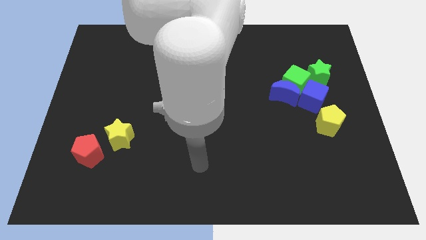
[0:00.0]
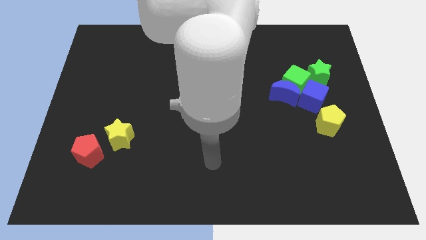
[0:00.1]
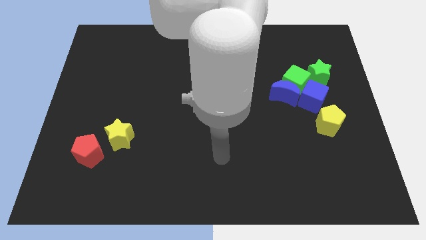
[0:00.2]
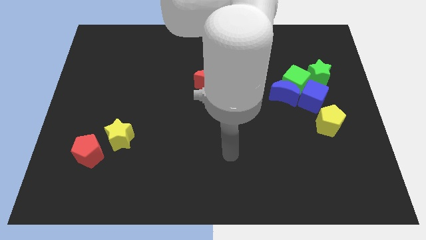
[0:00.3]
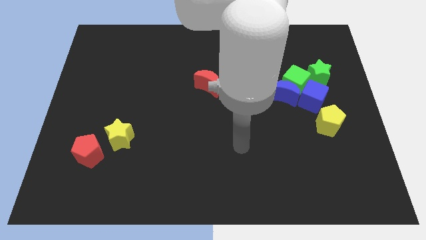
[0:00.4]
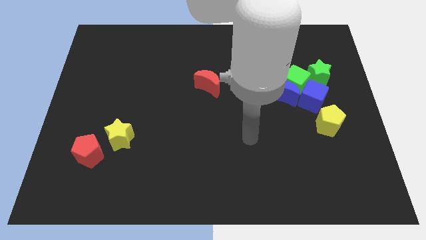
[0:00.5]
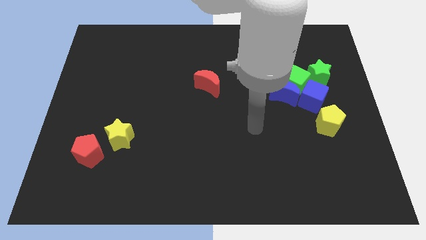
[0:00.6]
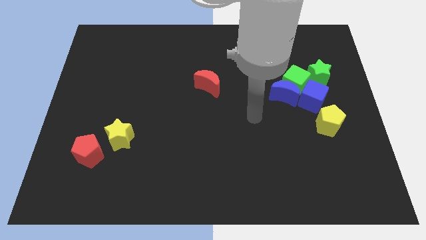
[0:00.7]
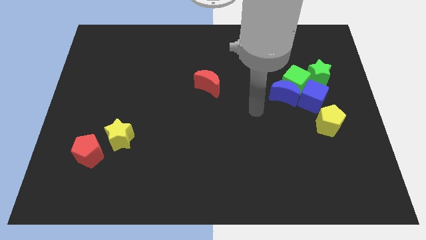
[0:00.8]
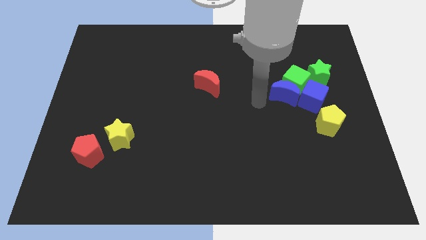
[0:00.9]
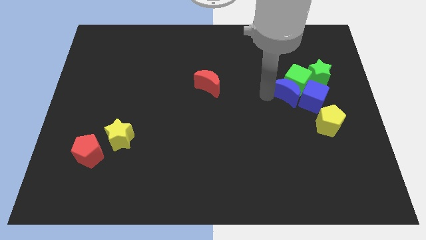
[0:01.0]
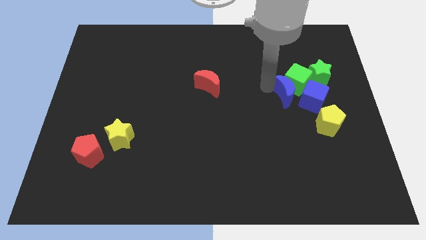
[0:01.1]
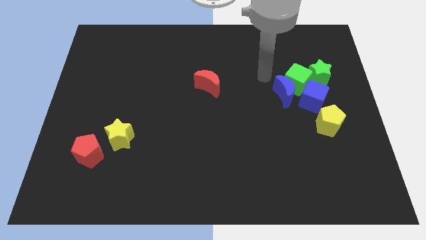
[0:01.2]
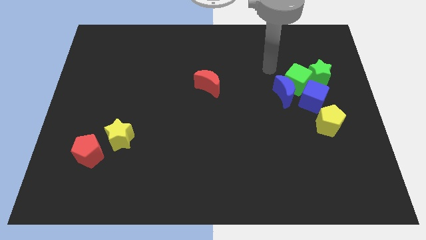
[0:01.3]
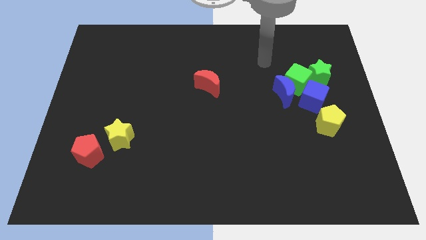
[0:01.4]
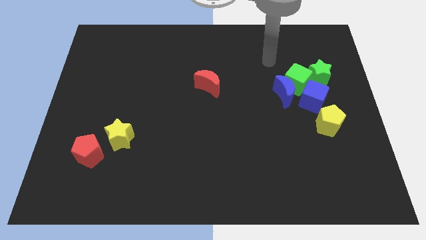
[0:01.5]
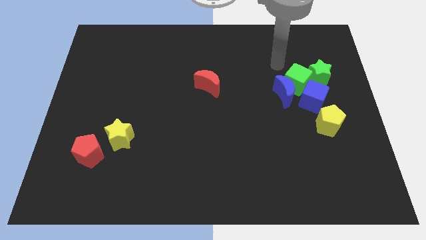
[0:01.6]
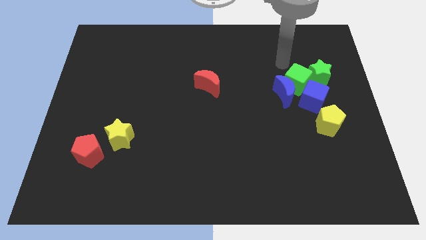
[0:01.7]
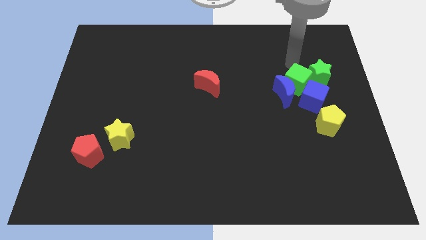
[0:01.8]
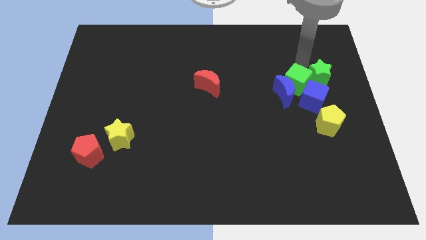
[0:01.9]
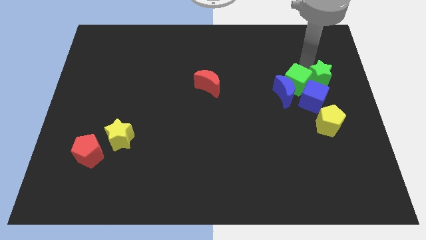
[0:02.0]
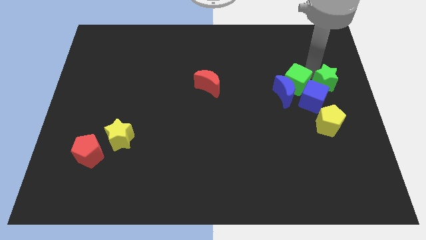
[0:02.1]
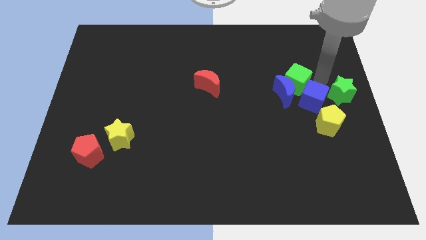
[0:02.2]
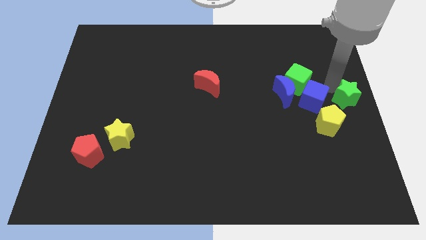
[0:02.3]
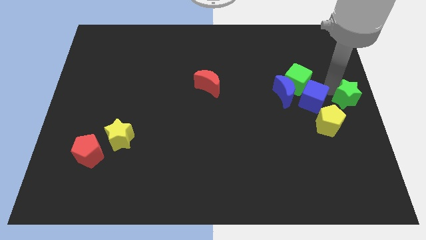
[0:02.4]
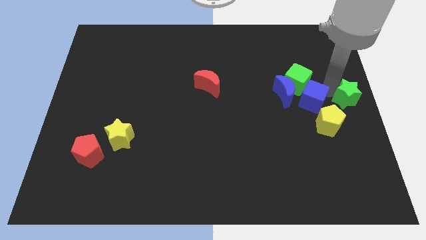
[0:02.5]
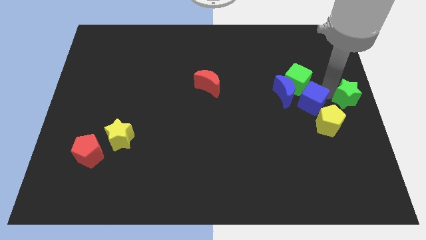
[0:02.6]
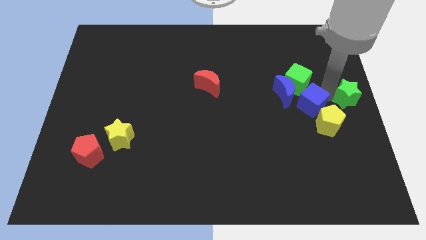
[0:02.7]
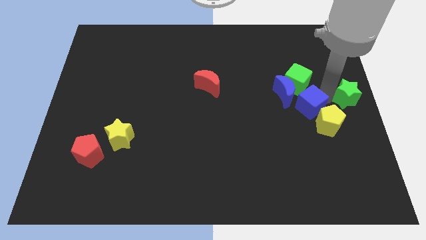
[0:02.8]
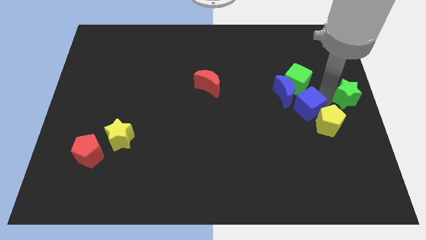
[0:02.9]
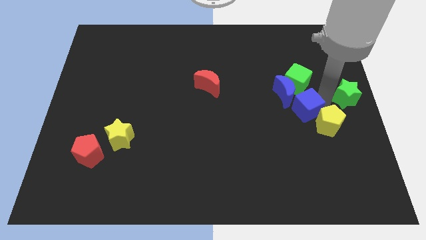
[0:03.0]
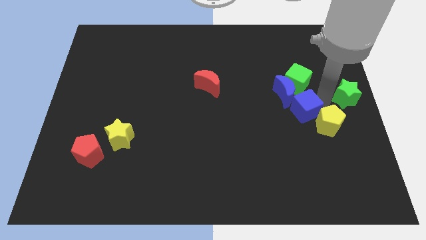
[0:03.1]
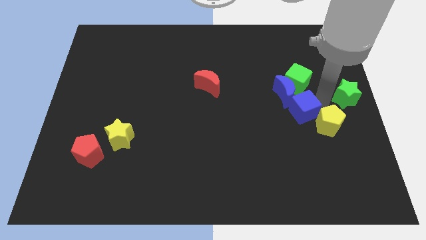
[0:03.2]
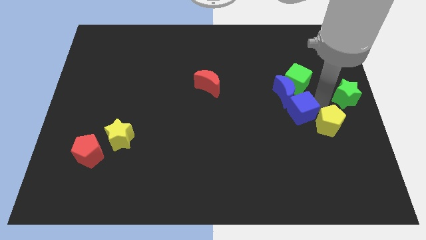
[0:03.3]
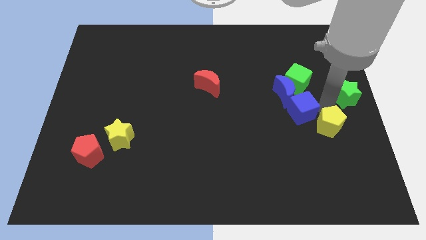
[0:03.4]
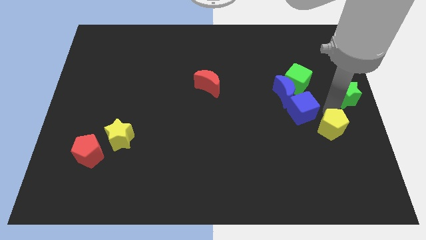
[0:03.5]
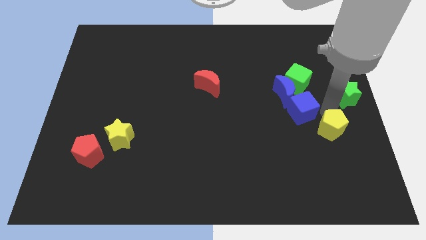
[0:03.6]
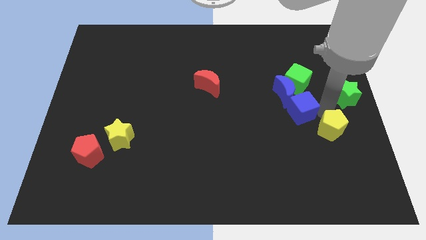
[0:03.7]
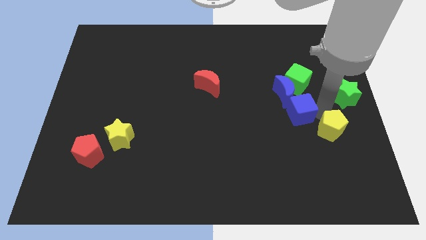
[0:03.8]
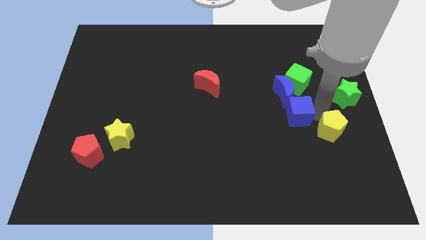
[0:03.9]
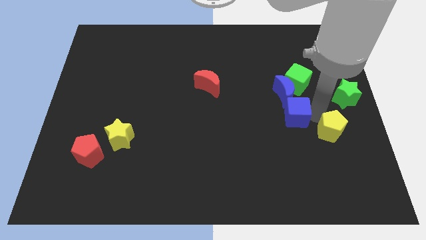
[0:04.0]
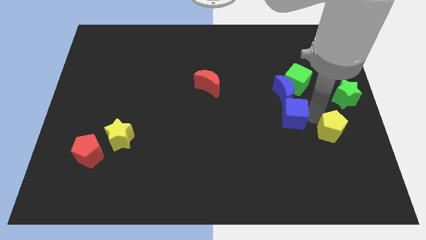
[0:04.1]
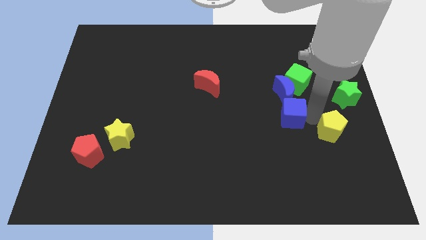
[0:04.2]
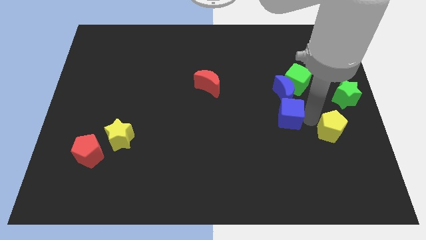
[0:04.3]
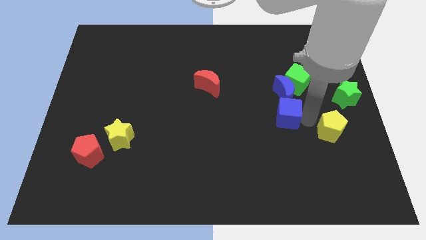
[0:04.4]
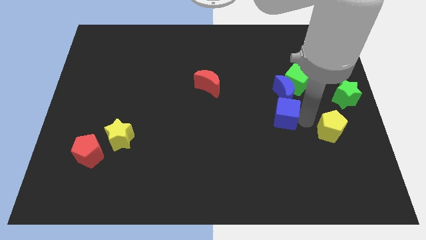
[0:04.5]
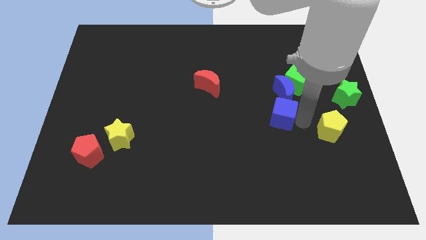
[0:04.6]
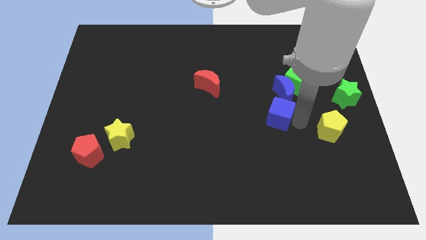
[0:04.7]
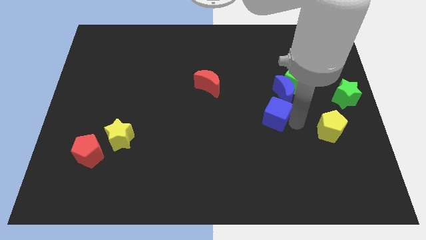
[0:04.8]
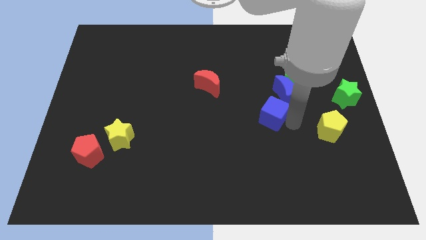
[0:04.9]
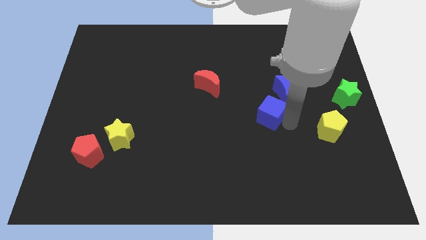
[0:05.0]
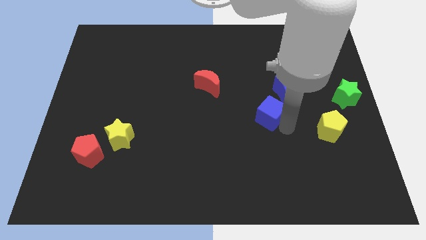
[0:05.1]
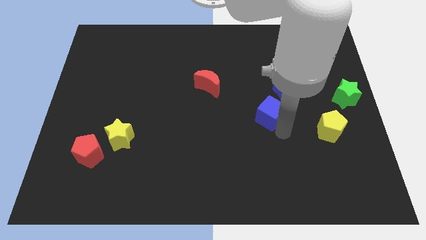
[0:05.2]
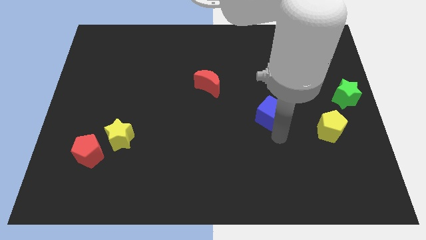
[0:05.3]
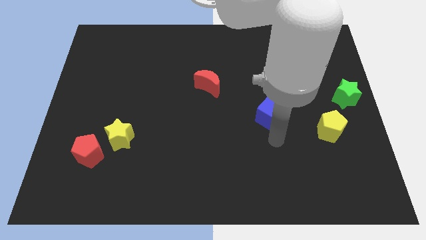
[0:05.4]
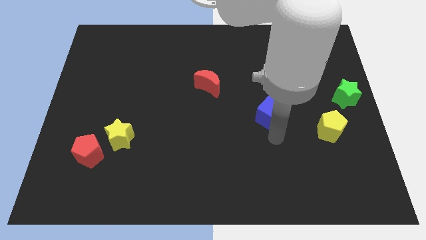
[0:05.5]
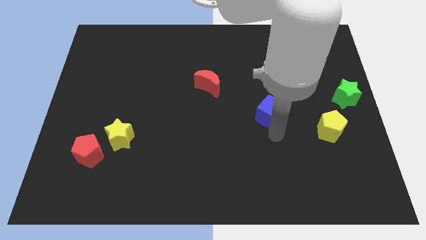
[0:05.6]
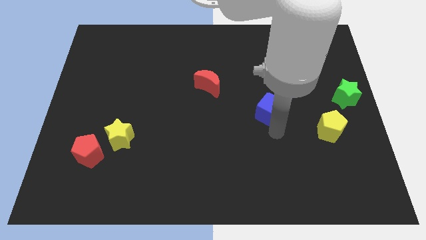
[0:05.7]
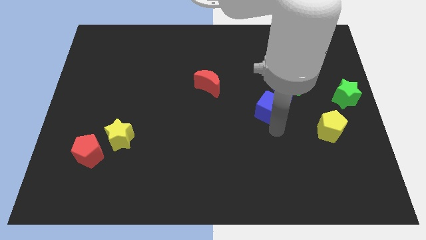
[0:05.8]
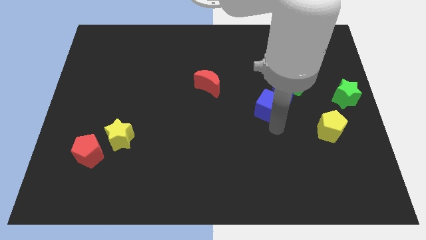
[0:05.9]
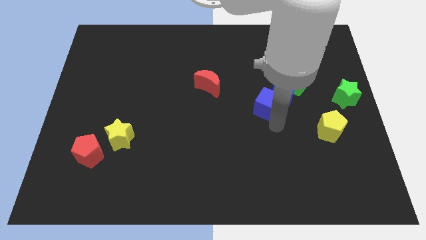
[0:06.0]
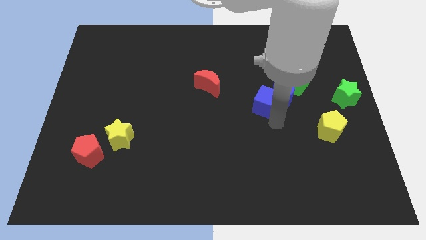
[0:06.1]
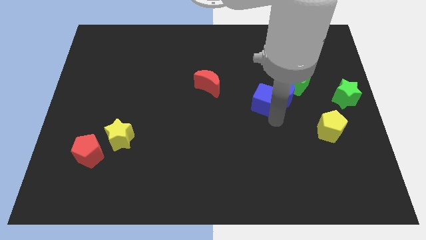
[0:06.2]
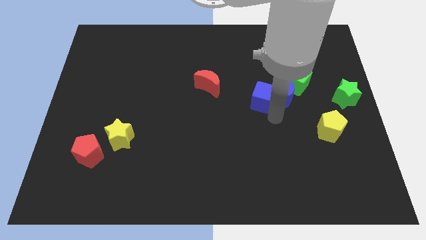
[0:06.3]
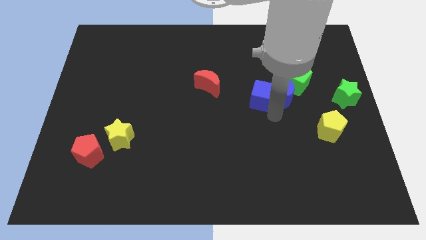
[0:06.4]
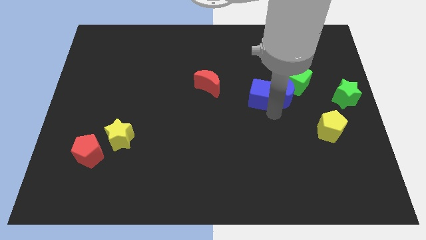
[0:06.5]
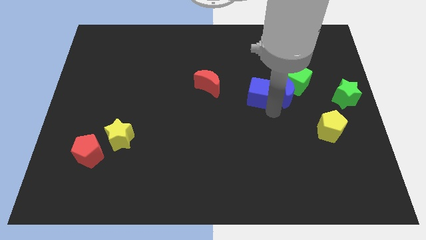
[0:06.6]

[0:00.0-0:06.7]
slide the blue cube slightly diagonally up and to the left

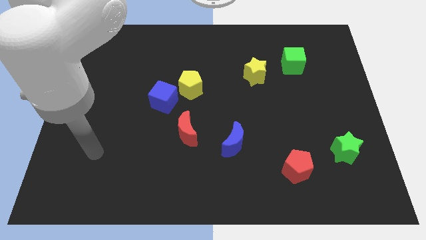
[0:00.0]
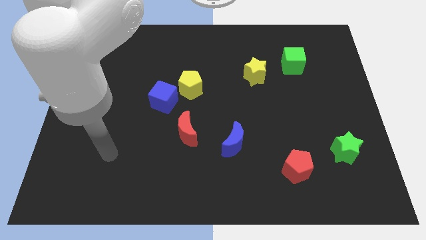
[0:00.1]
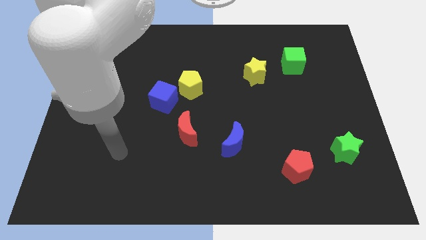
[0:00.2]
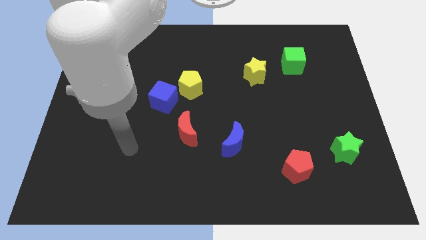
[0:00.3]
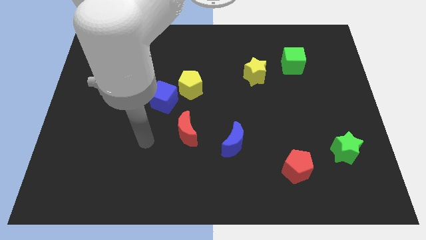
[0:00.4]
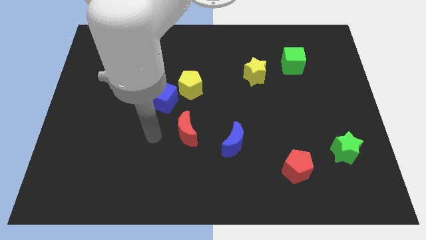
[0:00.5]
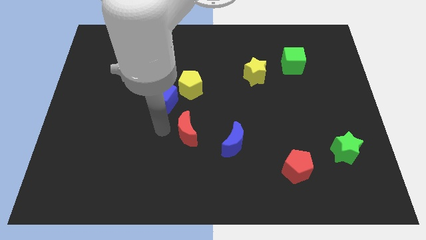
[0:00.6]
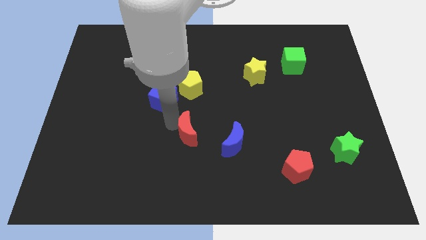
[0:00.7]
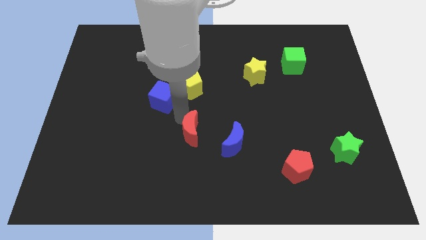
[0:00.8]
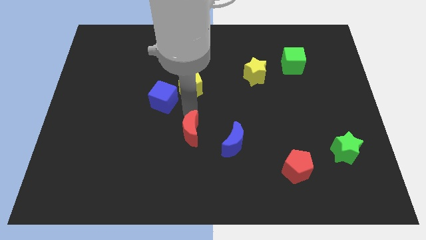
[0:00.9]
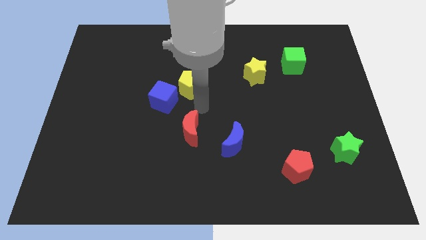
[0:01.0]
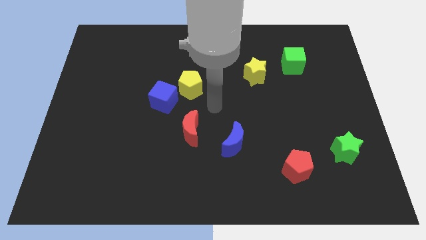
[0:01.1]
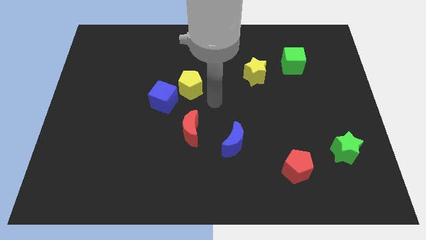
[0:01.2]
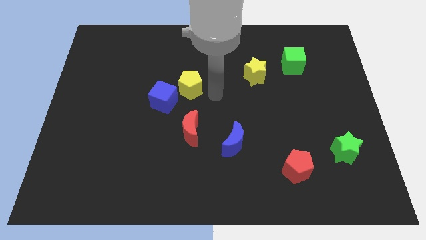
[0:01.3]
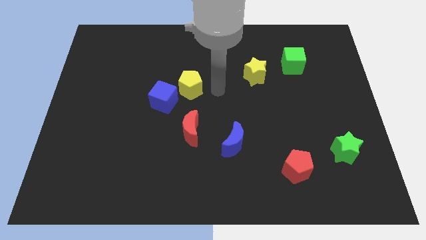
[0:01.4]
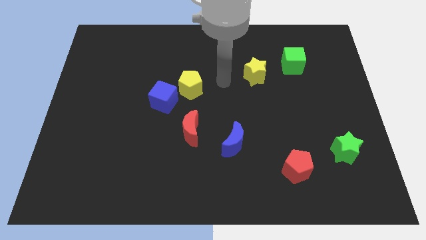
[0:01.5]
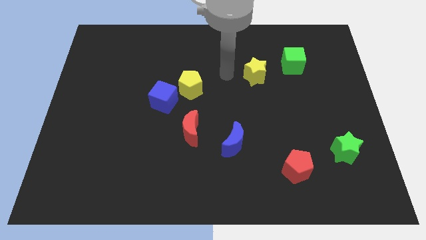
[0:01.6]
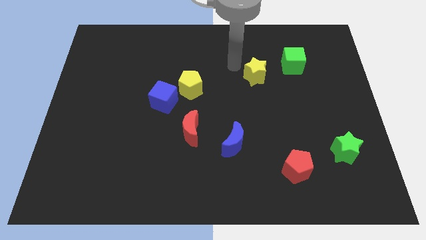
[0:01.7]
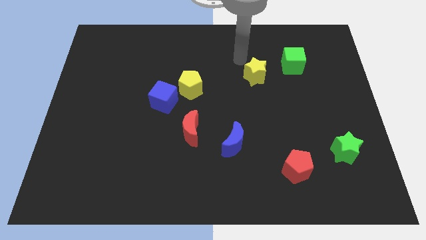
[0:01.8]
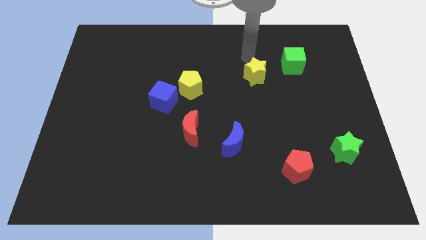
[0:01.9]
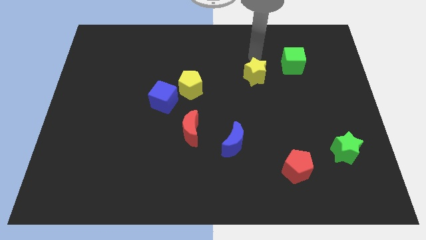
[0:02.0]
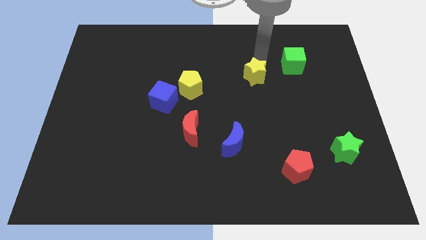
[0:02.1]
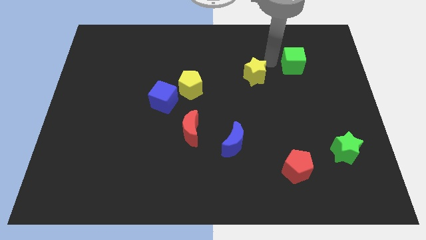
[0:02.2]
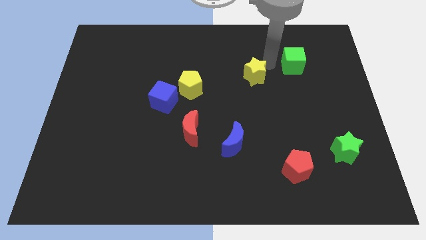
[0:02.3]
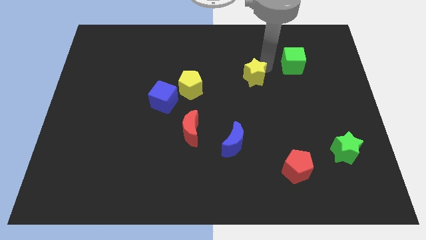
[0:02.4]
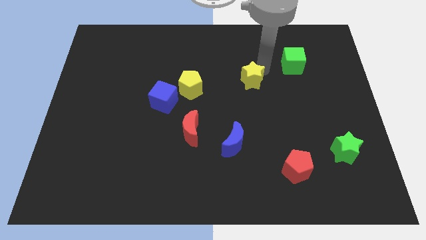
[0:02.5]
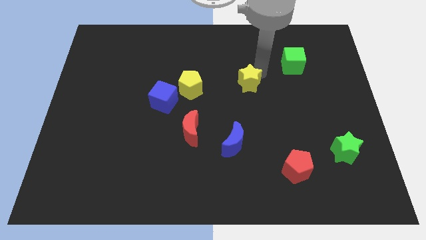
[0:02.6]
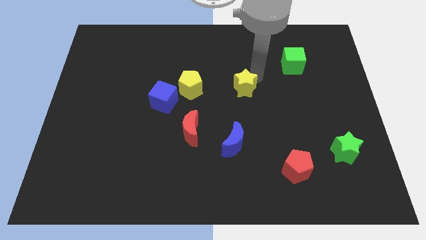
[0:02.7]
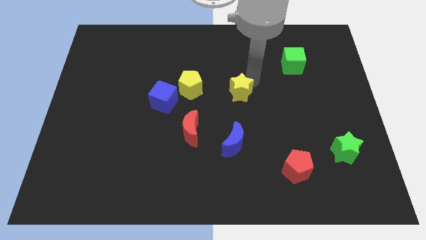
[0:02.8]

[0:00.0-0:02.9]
move the yellow star a bit down and left diagonally
